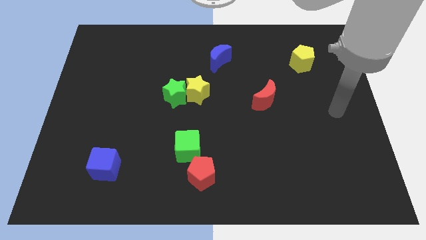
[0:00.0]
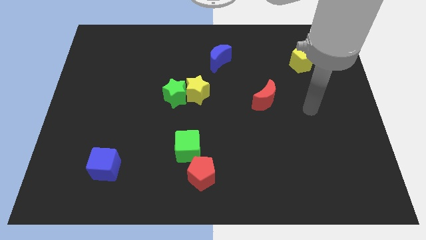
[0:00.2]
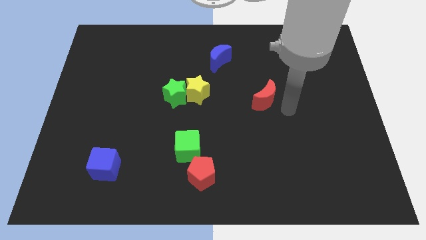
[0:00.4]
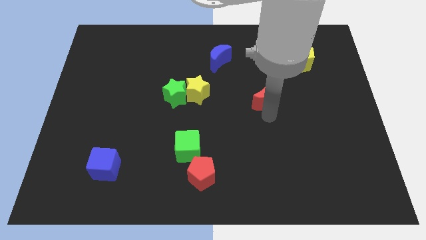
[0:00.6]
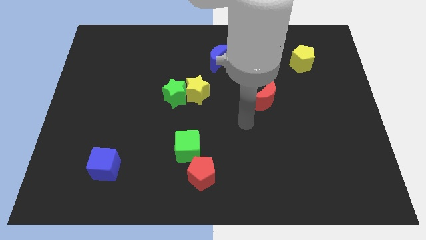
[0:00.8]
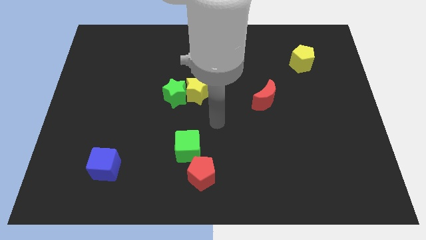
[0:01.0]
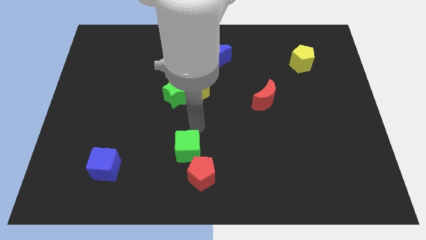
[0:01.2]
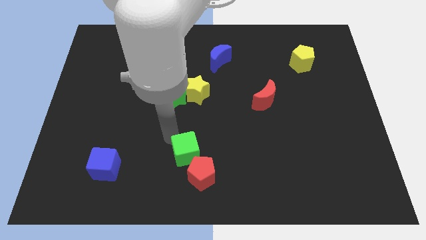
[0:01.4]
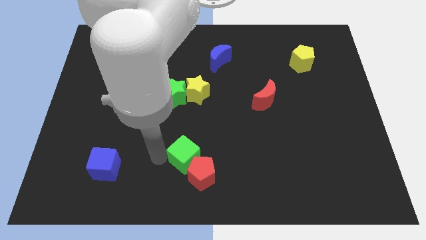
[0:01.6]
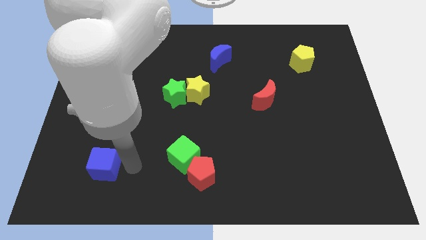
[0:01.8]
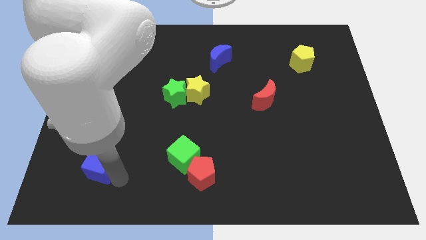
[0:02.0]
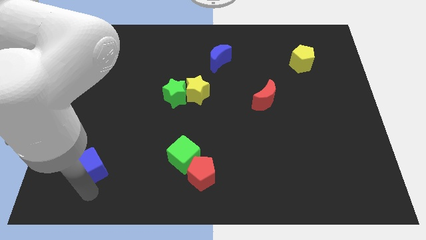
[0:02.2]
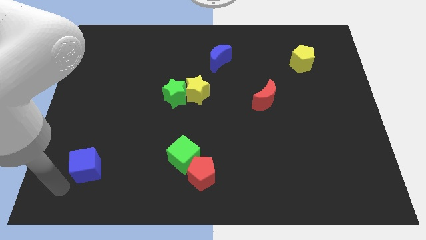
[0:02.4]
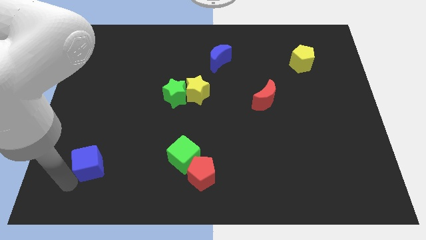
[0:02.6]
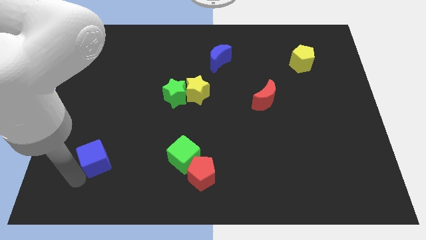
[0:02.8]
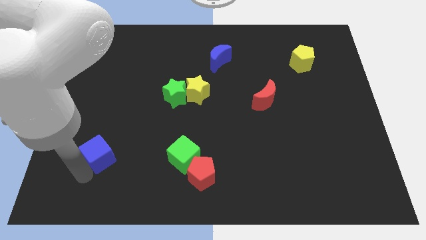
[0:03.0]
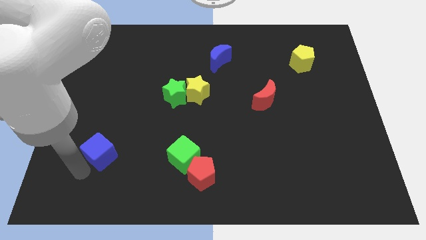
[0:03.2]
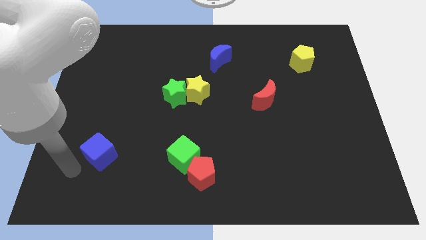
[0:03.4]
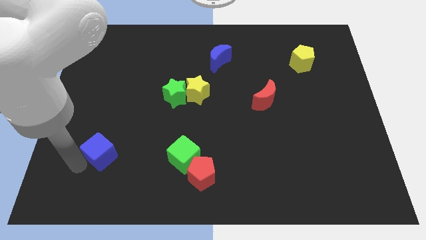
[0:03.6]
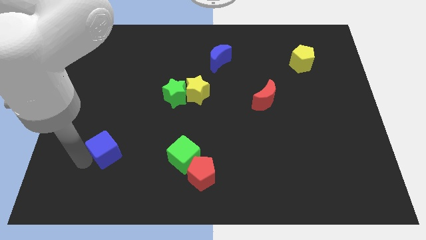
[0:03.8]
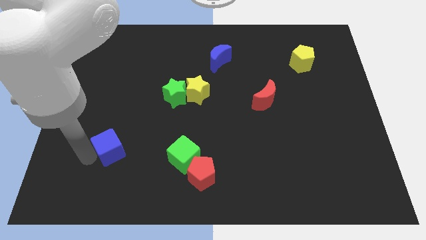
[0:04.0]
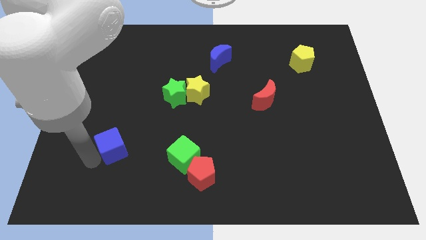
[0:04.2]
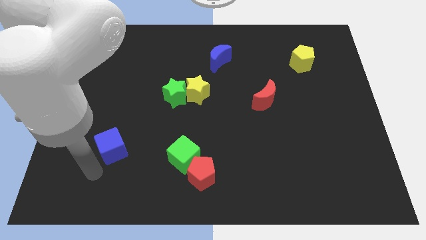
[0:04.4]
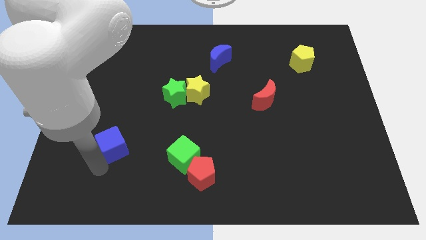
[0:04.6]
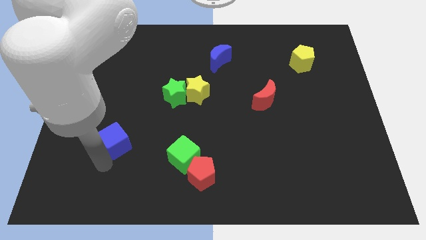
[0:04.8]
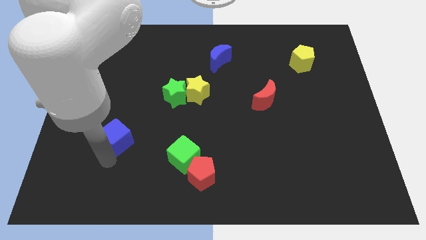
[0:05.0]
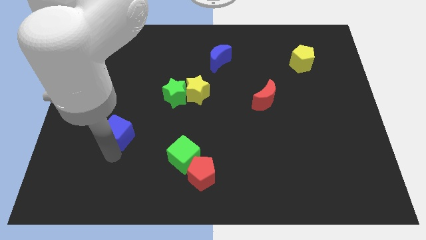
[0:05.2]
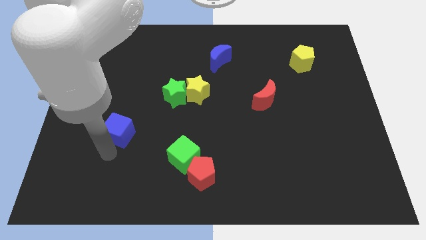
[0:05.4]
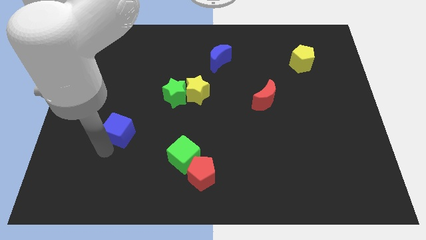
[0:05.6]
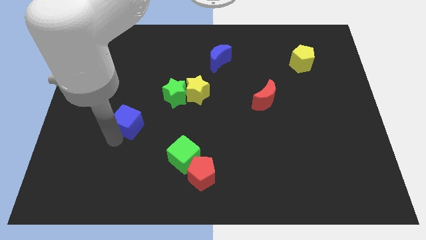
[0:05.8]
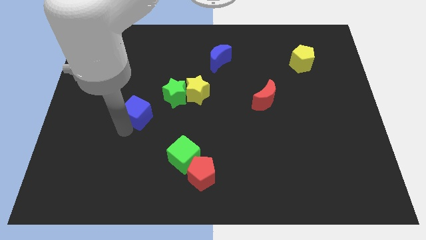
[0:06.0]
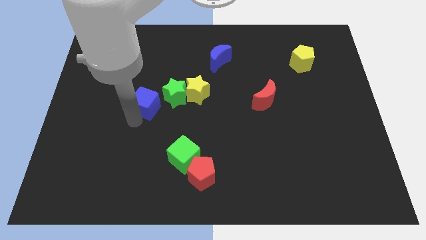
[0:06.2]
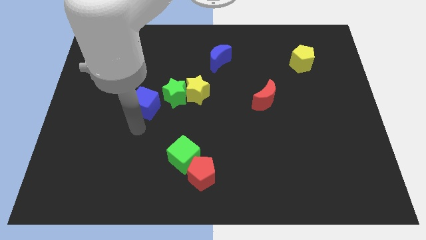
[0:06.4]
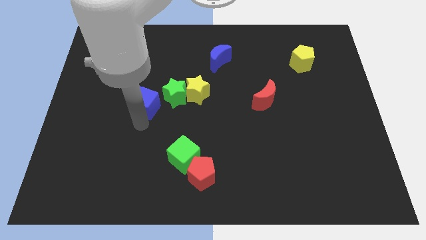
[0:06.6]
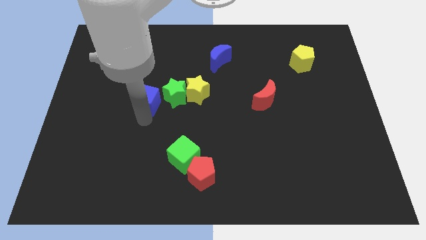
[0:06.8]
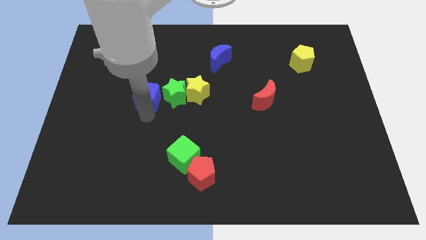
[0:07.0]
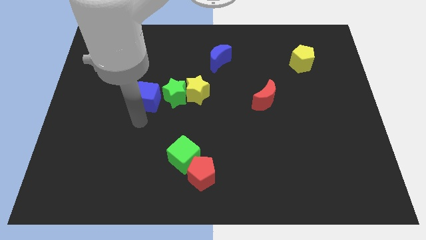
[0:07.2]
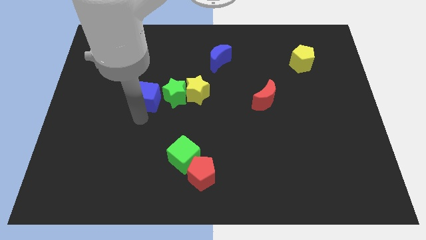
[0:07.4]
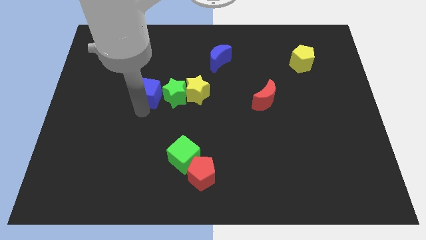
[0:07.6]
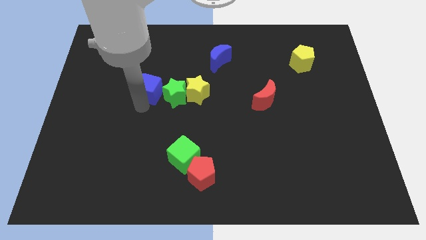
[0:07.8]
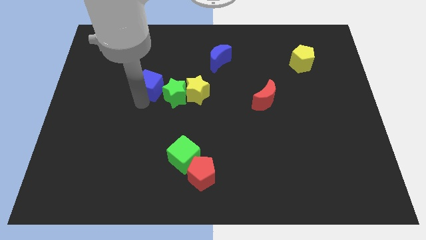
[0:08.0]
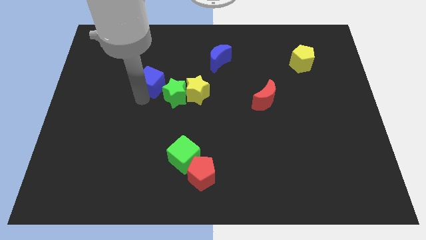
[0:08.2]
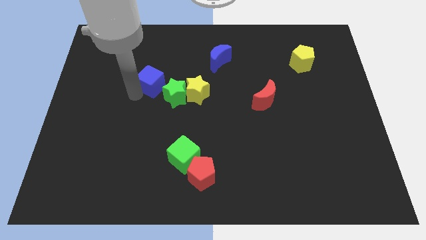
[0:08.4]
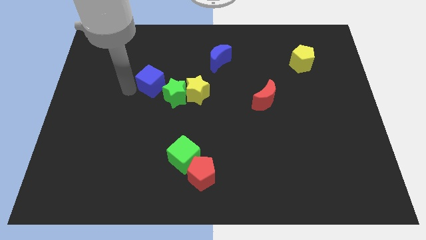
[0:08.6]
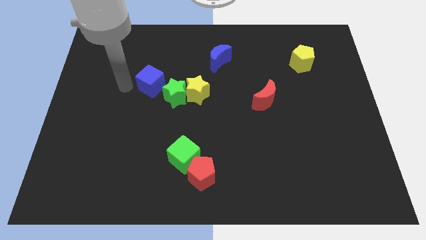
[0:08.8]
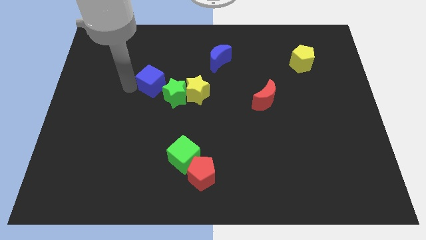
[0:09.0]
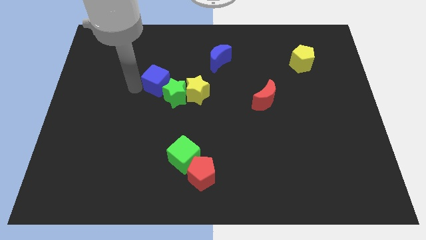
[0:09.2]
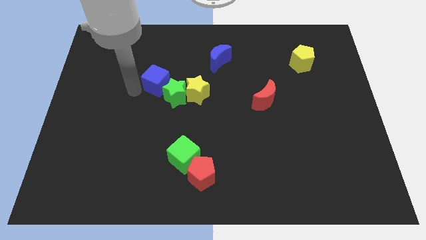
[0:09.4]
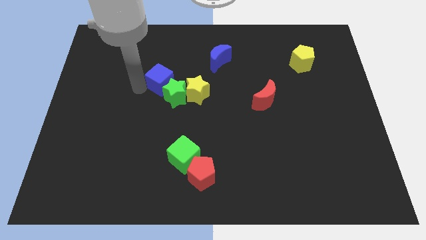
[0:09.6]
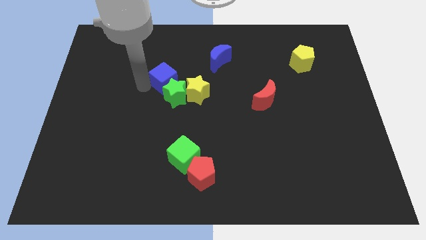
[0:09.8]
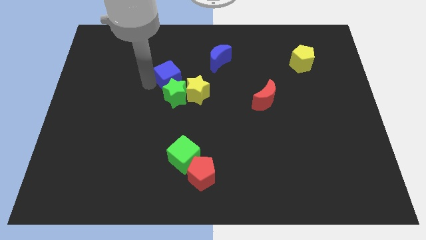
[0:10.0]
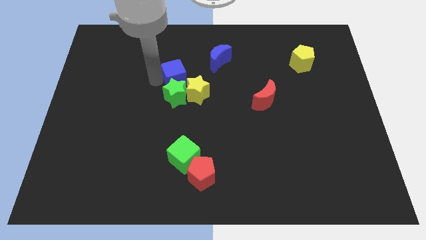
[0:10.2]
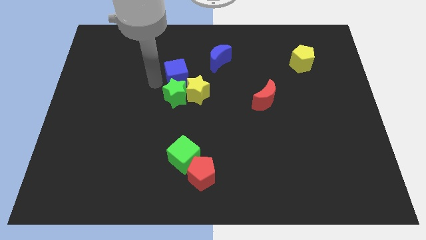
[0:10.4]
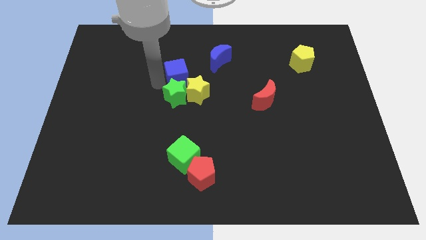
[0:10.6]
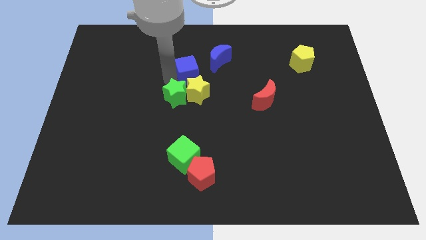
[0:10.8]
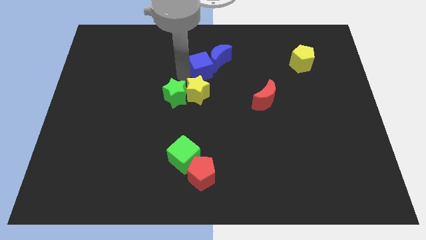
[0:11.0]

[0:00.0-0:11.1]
slide the blue cube towards the blue moon

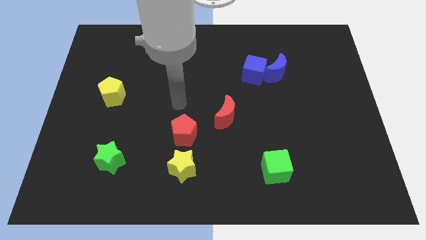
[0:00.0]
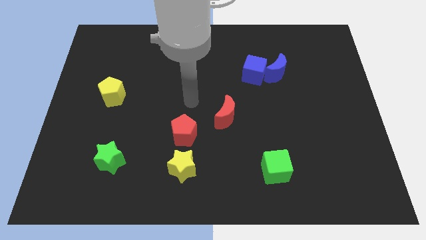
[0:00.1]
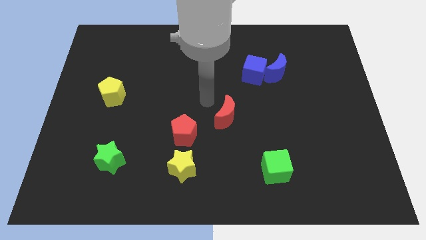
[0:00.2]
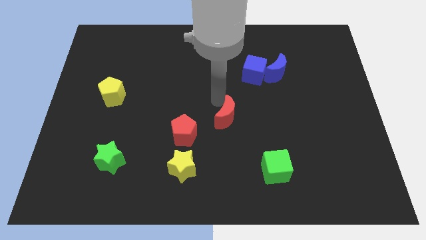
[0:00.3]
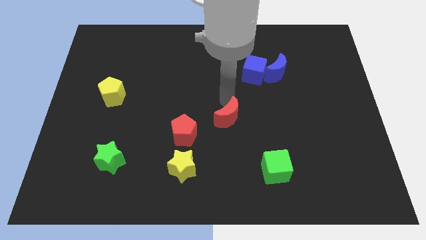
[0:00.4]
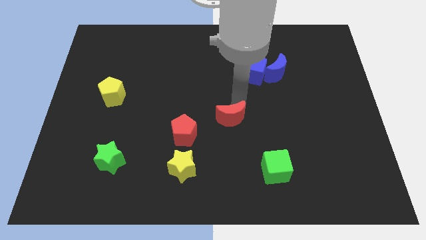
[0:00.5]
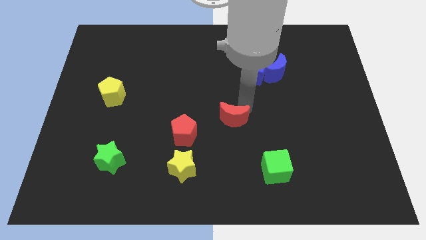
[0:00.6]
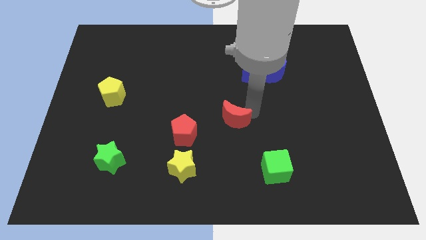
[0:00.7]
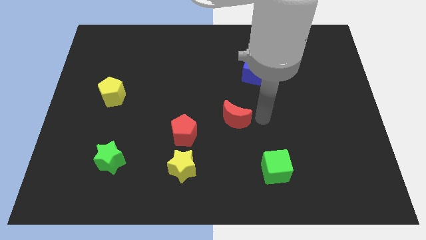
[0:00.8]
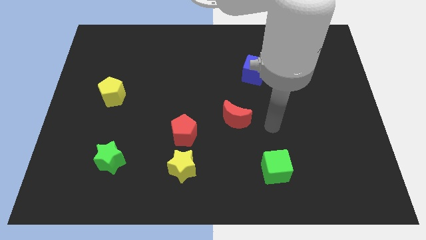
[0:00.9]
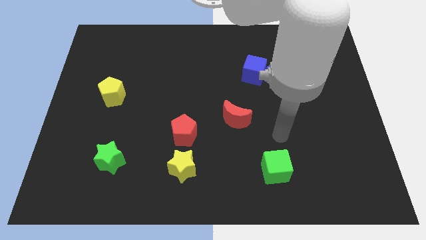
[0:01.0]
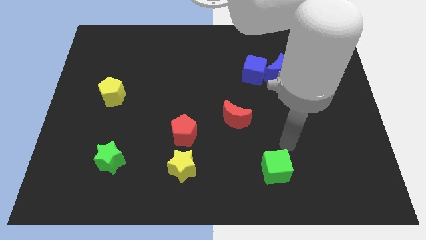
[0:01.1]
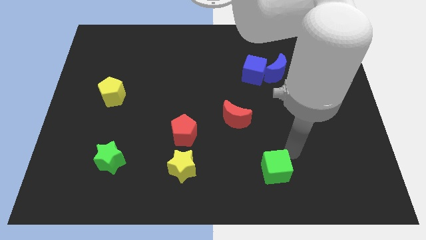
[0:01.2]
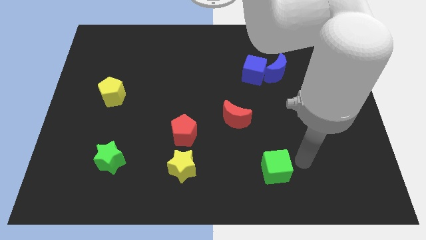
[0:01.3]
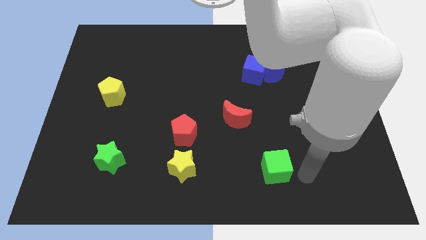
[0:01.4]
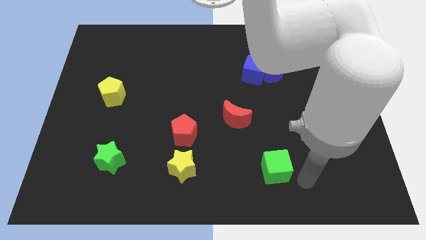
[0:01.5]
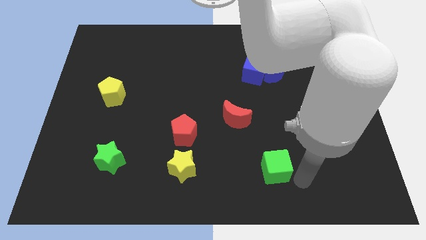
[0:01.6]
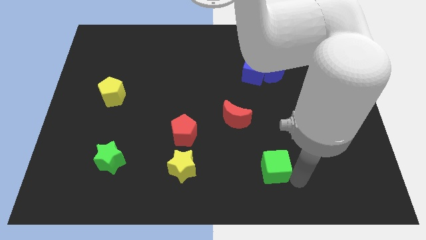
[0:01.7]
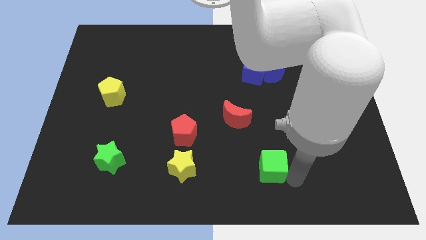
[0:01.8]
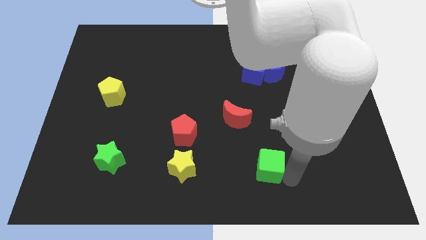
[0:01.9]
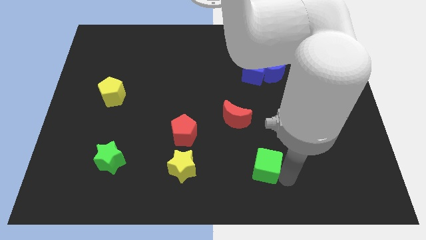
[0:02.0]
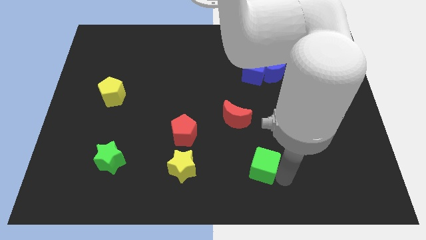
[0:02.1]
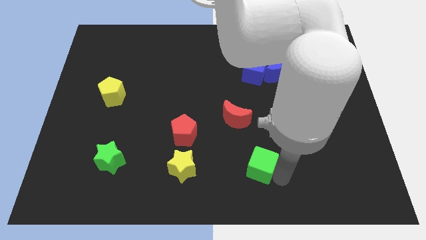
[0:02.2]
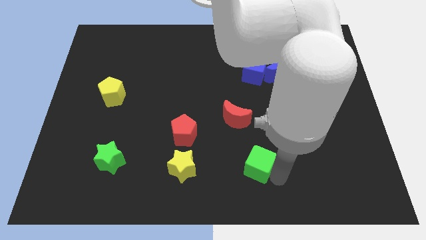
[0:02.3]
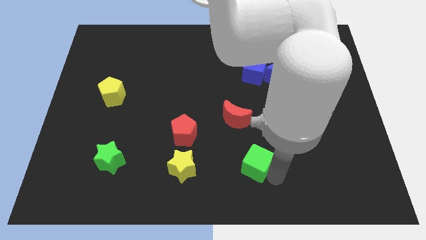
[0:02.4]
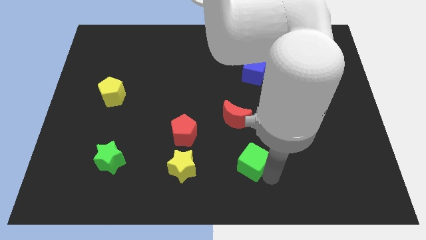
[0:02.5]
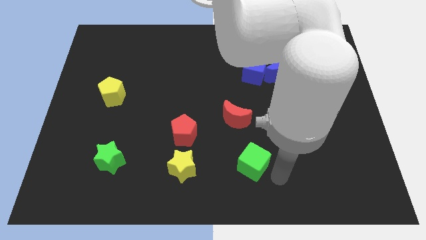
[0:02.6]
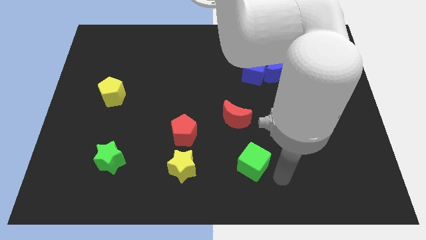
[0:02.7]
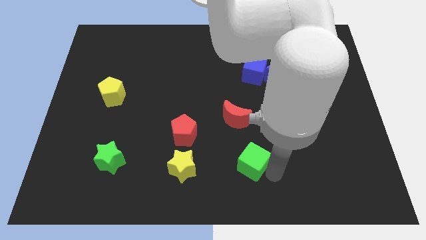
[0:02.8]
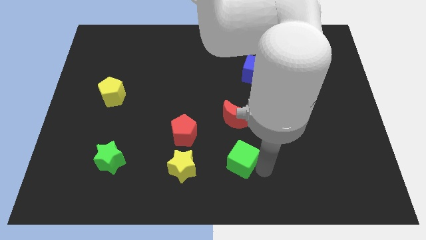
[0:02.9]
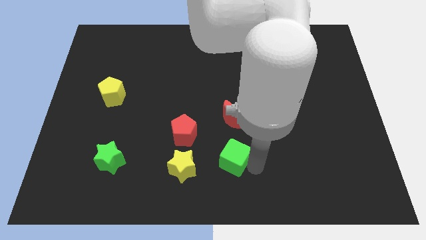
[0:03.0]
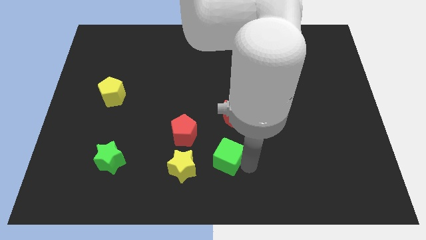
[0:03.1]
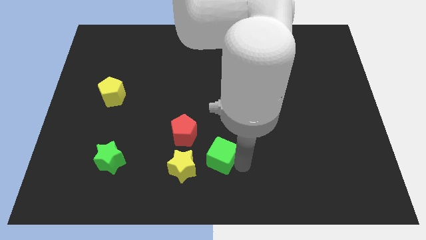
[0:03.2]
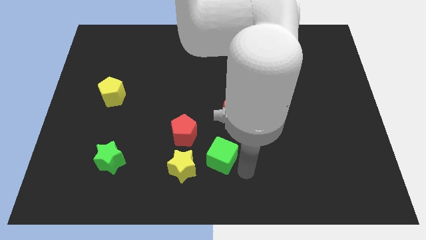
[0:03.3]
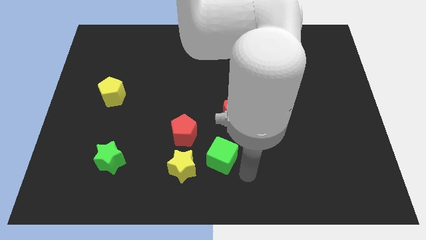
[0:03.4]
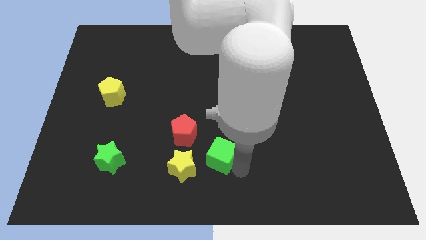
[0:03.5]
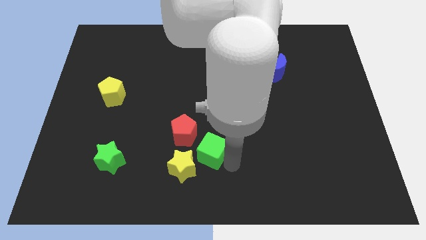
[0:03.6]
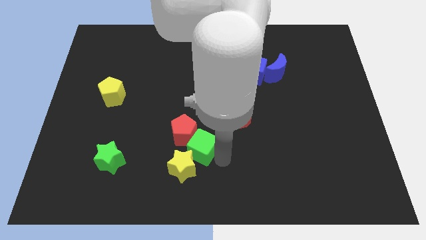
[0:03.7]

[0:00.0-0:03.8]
move the green cube next to the red pentagon
